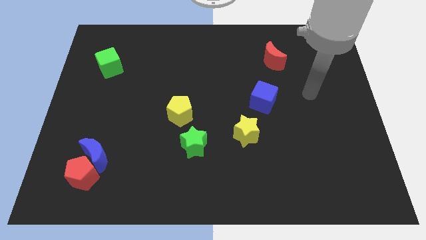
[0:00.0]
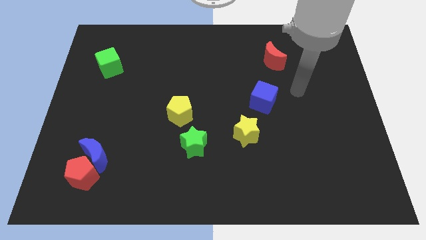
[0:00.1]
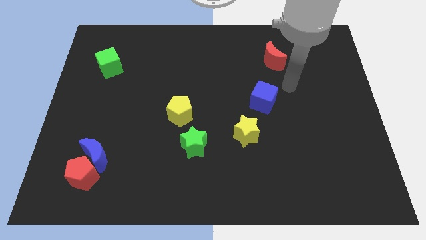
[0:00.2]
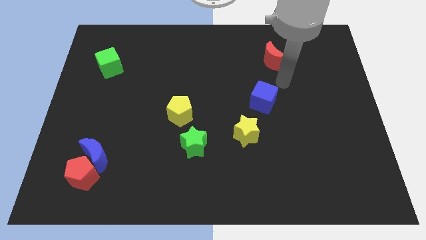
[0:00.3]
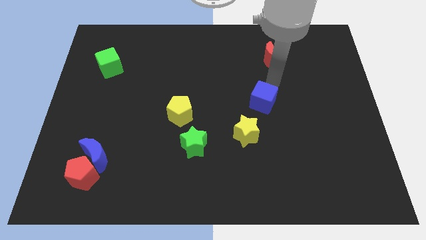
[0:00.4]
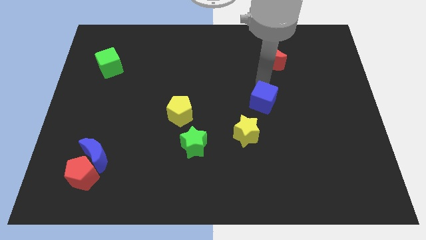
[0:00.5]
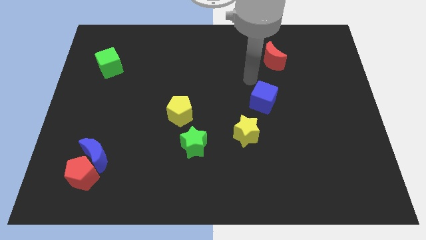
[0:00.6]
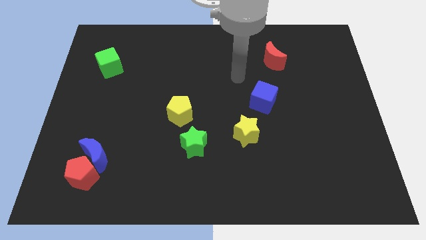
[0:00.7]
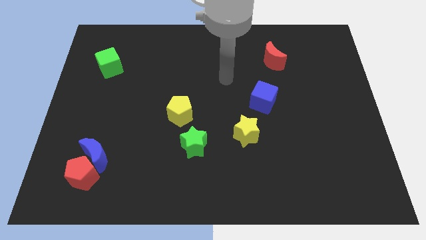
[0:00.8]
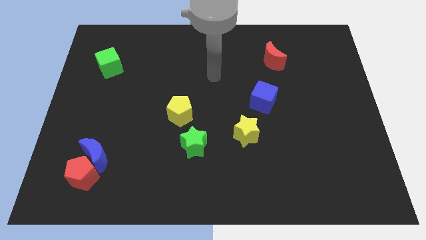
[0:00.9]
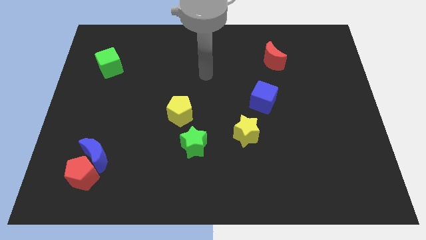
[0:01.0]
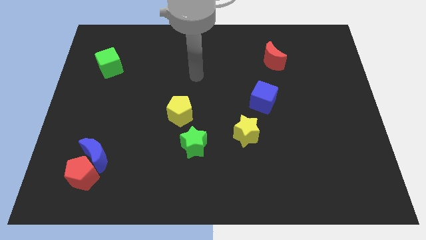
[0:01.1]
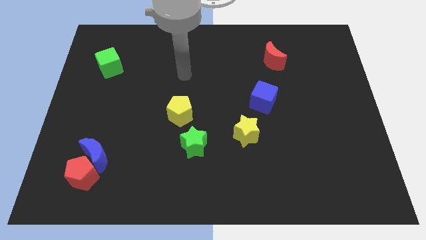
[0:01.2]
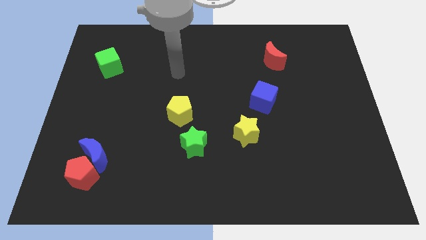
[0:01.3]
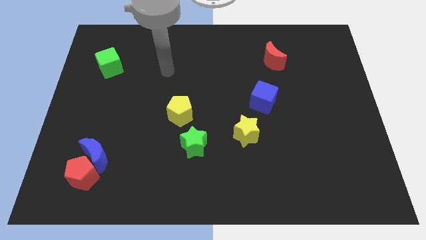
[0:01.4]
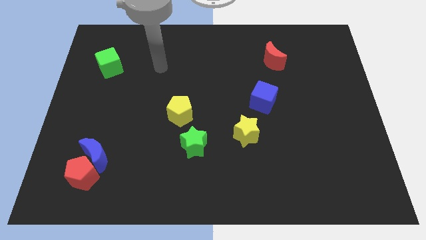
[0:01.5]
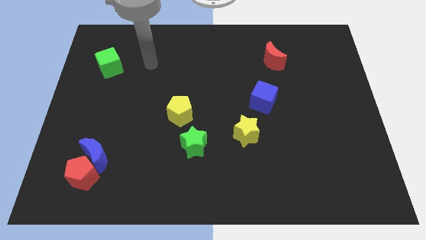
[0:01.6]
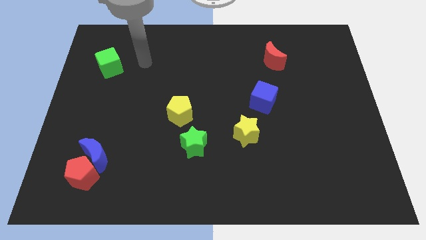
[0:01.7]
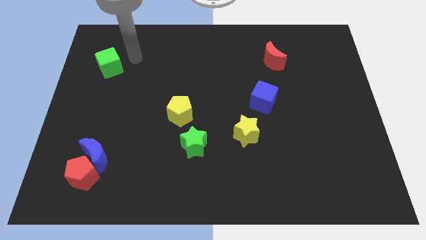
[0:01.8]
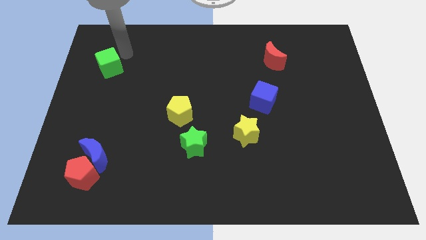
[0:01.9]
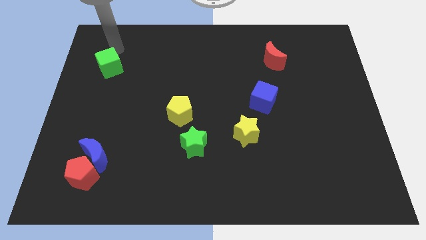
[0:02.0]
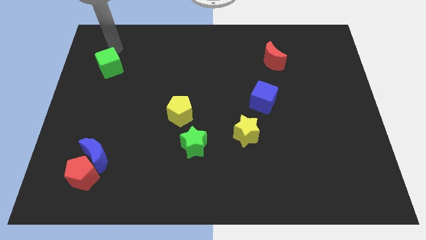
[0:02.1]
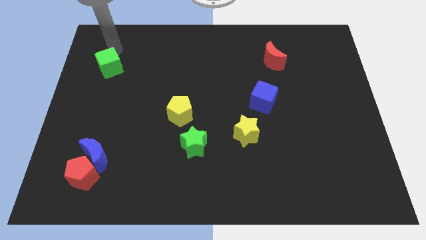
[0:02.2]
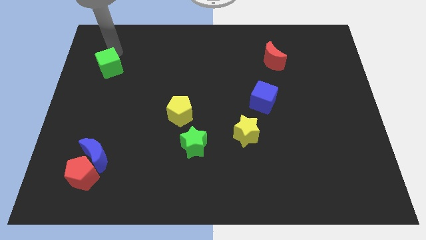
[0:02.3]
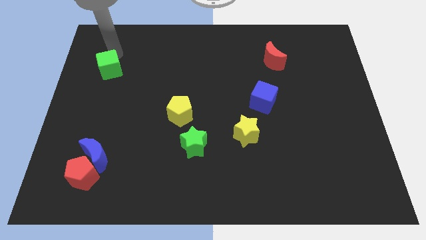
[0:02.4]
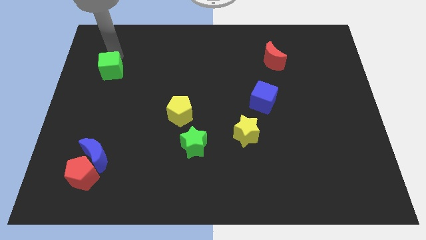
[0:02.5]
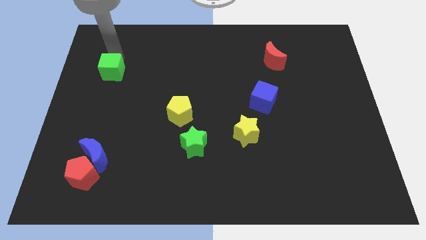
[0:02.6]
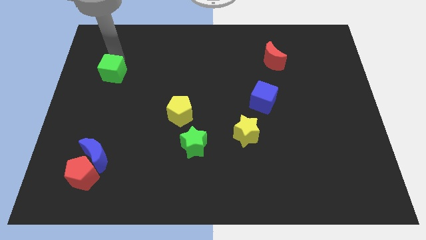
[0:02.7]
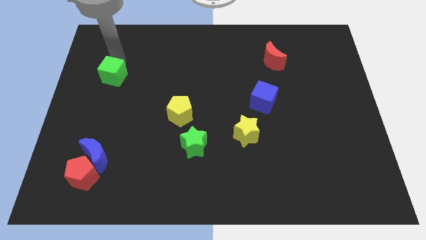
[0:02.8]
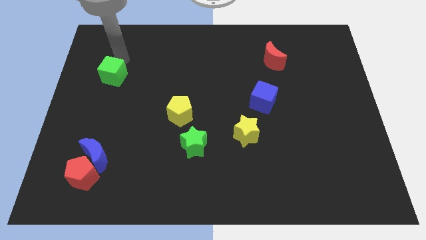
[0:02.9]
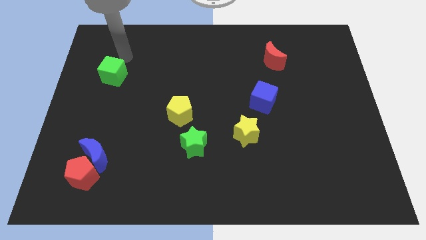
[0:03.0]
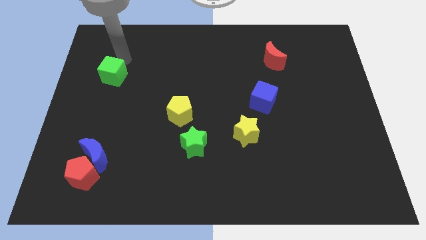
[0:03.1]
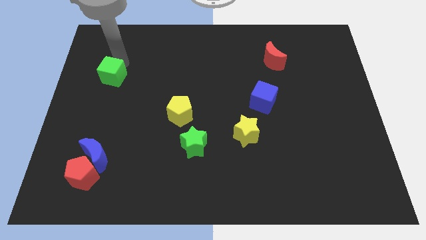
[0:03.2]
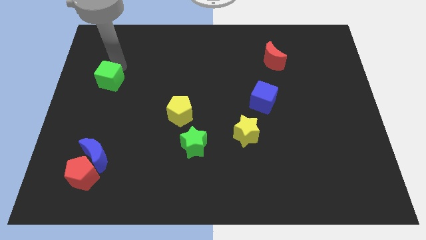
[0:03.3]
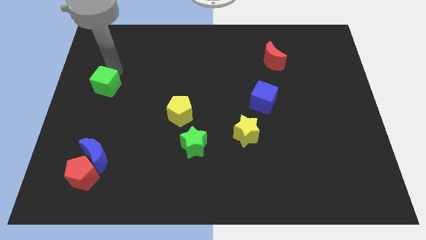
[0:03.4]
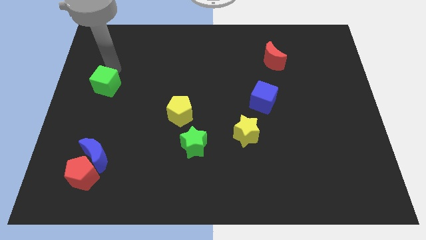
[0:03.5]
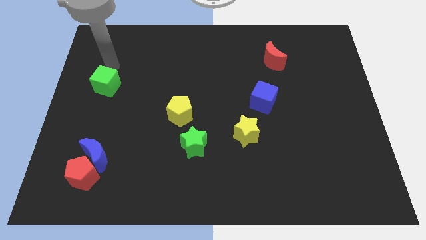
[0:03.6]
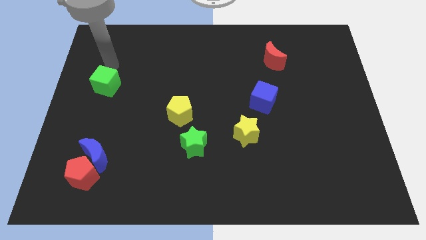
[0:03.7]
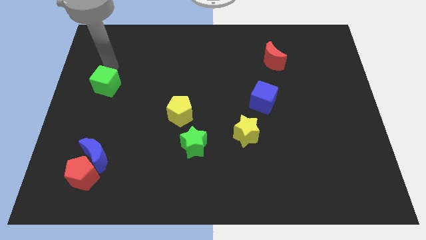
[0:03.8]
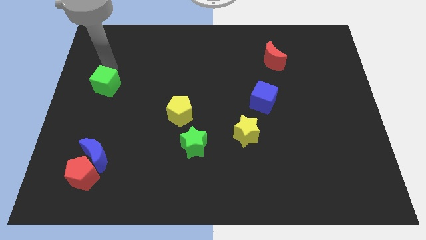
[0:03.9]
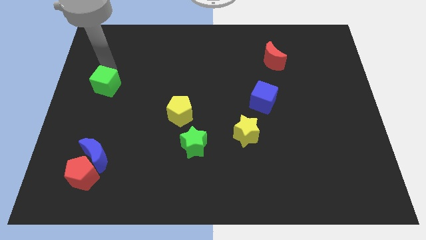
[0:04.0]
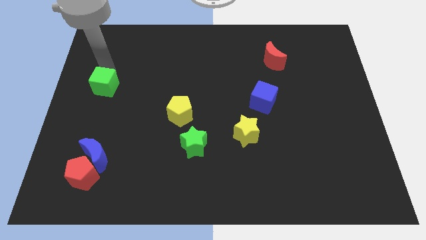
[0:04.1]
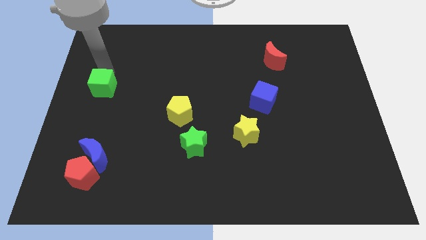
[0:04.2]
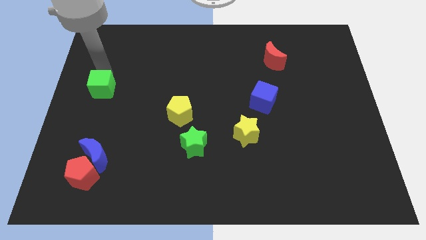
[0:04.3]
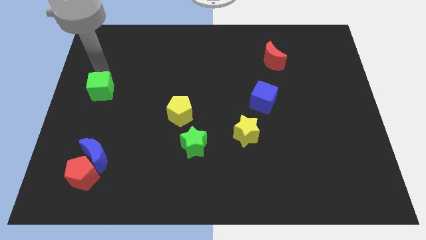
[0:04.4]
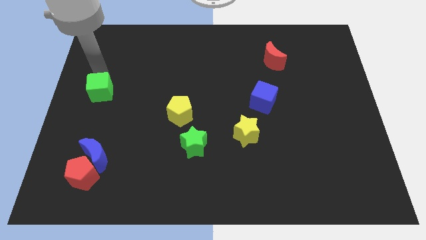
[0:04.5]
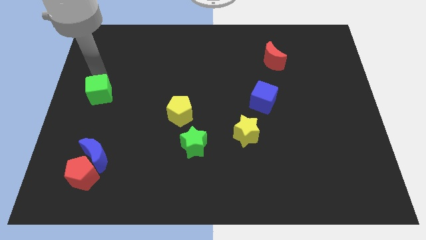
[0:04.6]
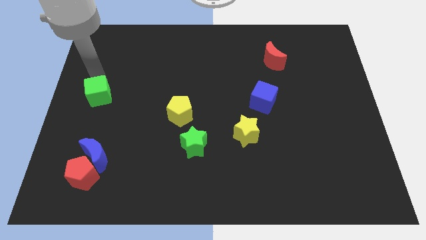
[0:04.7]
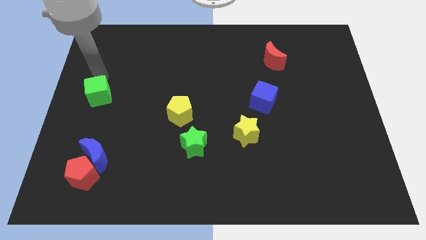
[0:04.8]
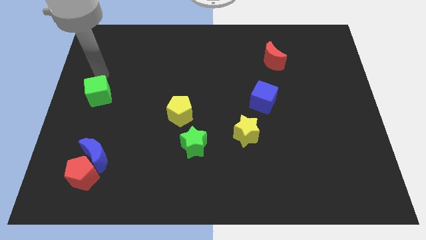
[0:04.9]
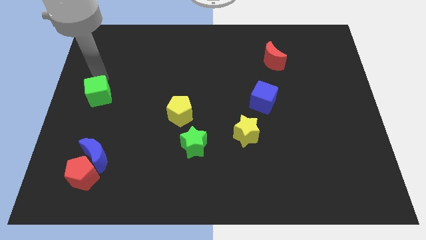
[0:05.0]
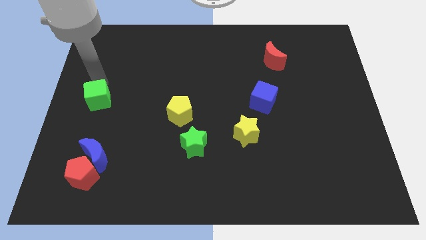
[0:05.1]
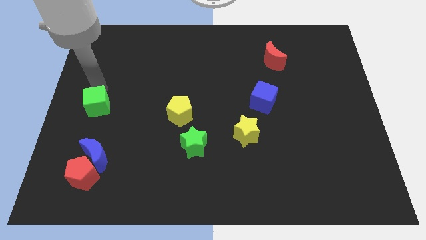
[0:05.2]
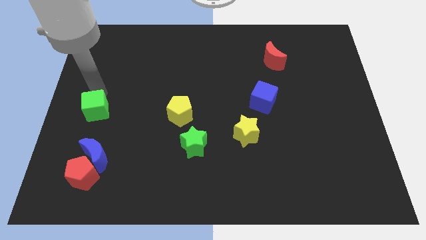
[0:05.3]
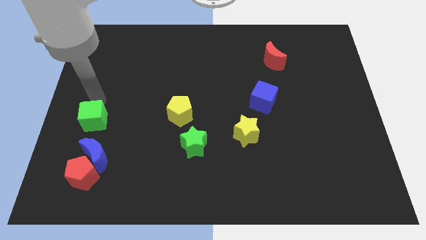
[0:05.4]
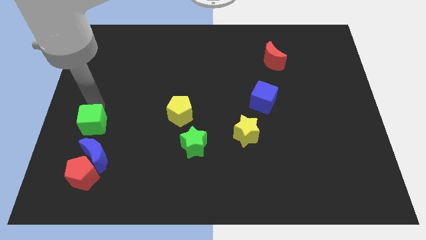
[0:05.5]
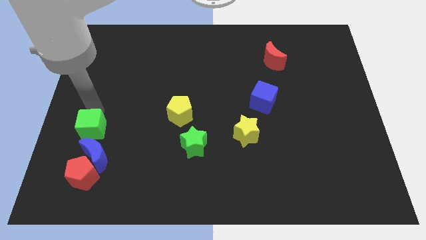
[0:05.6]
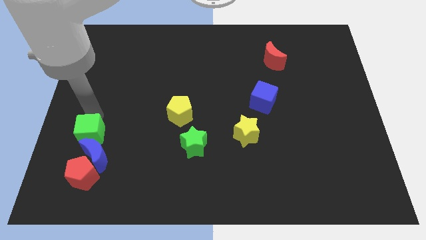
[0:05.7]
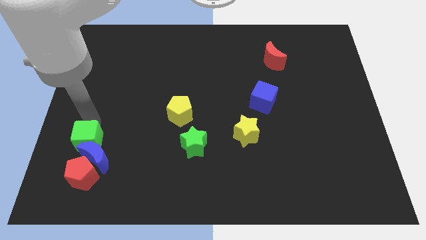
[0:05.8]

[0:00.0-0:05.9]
move the green cube close to the blue moon

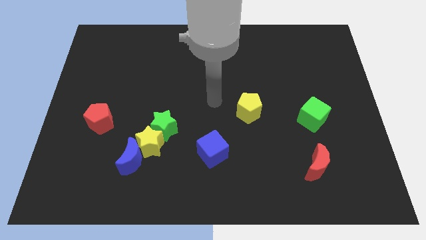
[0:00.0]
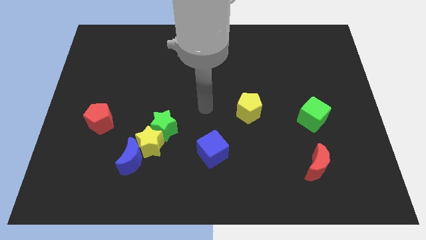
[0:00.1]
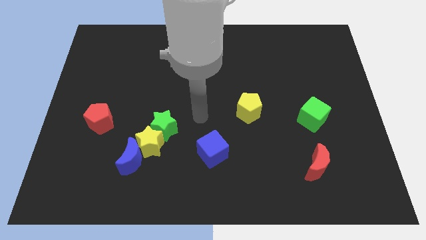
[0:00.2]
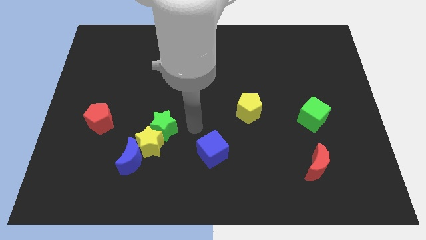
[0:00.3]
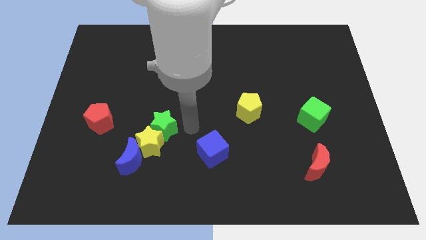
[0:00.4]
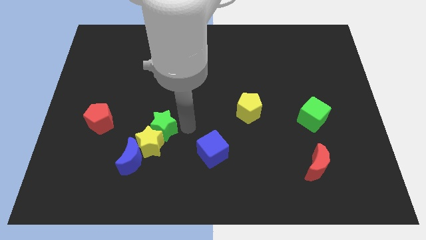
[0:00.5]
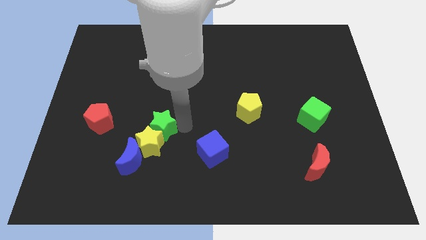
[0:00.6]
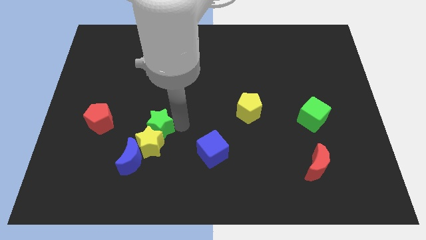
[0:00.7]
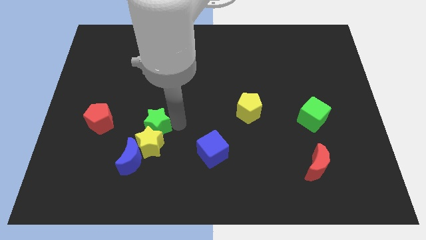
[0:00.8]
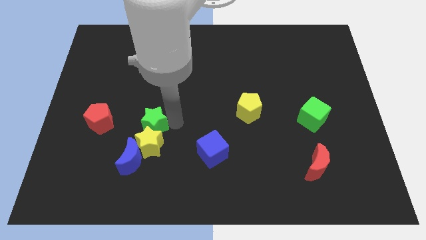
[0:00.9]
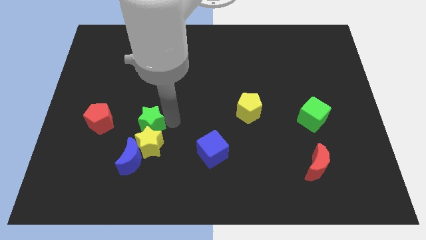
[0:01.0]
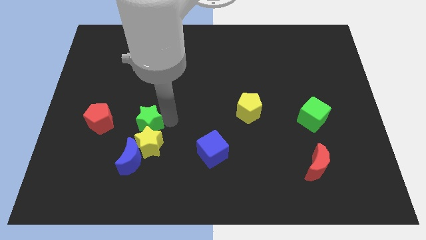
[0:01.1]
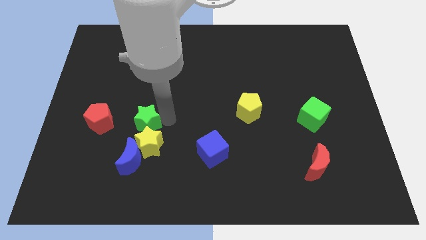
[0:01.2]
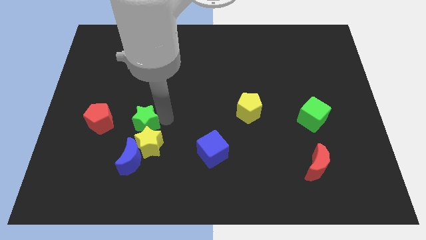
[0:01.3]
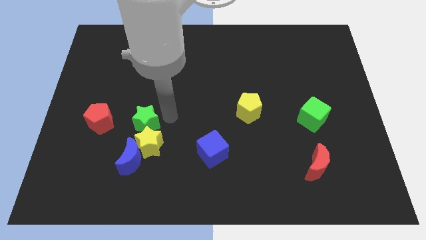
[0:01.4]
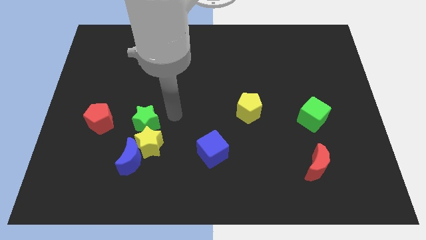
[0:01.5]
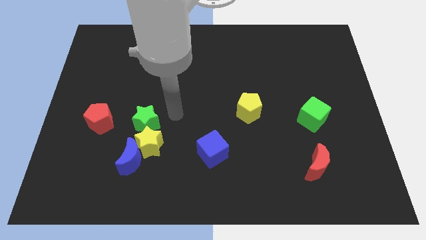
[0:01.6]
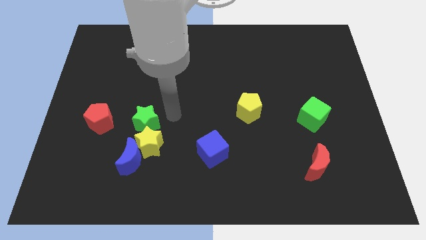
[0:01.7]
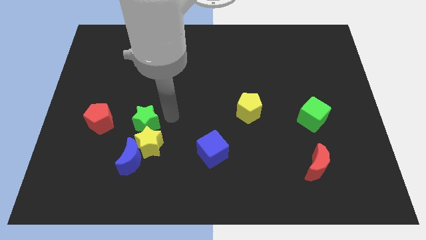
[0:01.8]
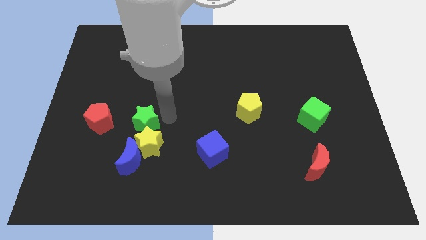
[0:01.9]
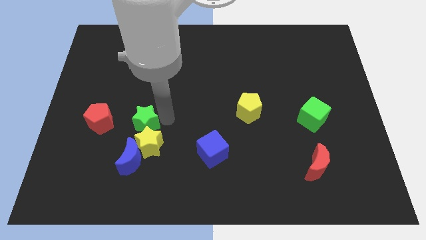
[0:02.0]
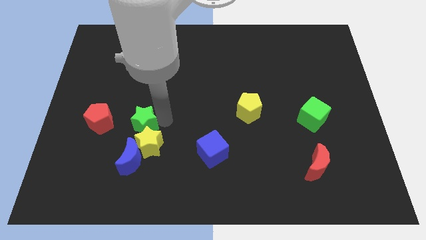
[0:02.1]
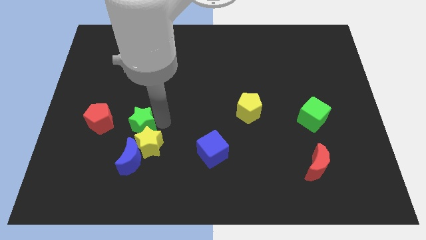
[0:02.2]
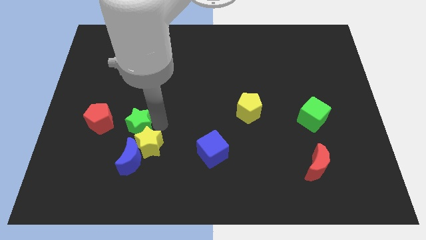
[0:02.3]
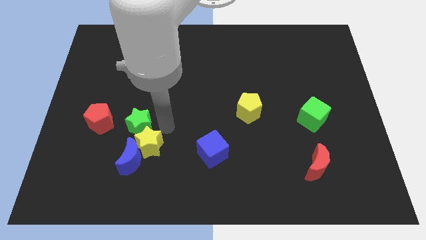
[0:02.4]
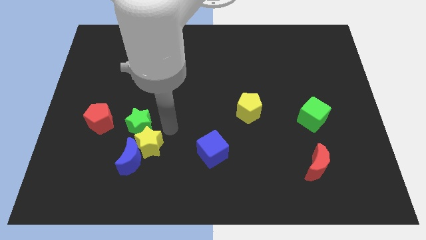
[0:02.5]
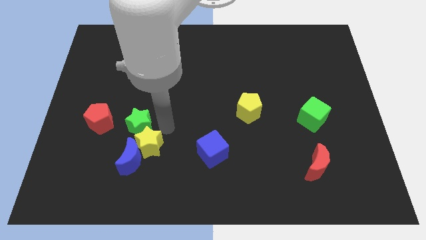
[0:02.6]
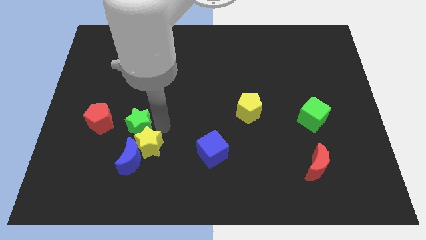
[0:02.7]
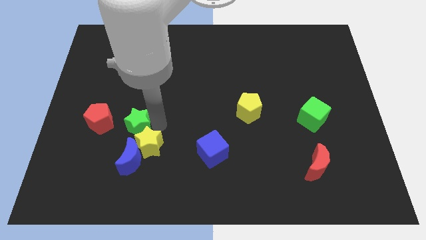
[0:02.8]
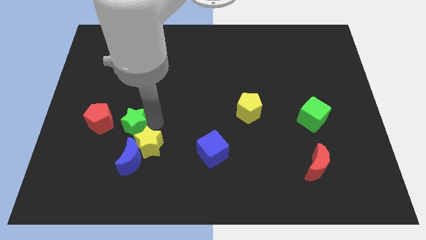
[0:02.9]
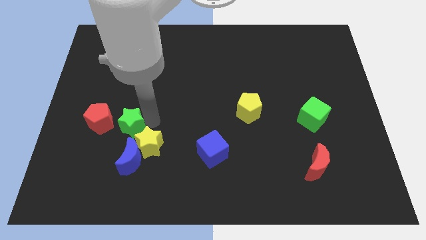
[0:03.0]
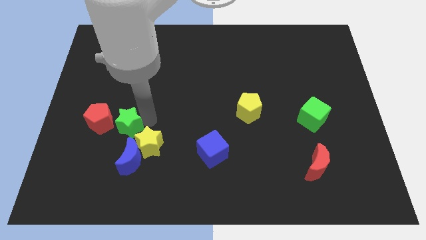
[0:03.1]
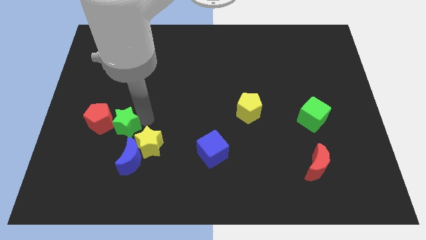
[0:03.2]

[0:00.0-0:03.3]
slide the green star next to the red pentagon
